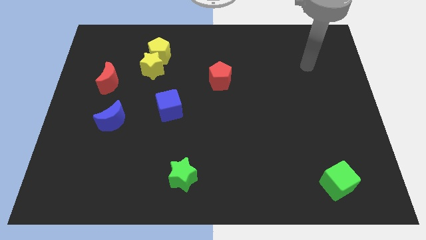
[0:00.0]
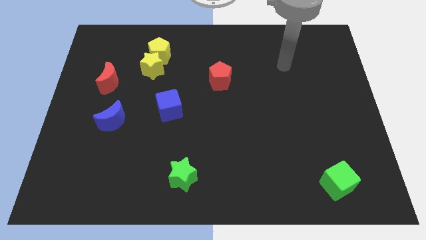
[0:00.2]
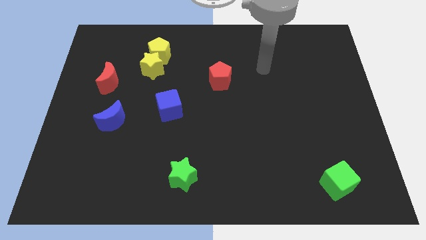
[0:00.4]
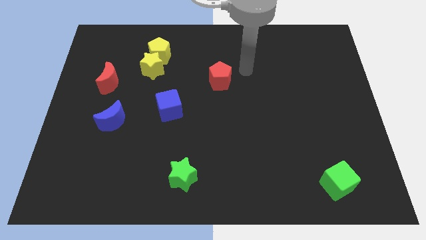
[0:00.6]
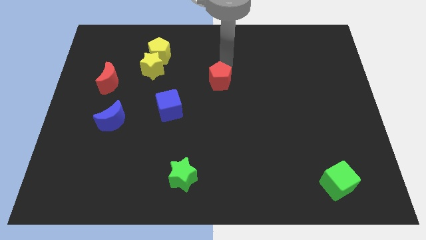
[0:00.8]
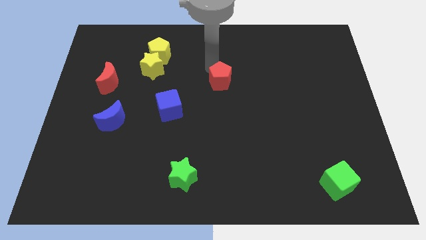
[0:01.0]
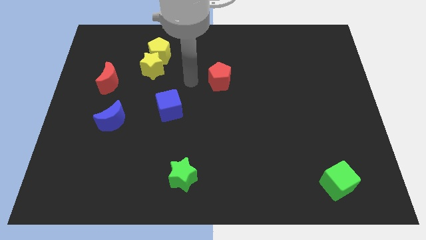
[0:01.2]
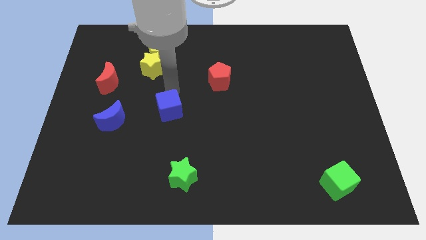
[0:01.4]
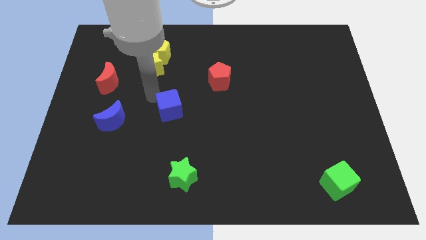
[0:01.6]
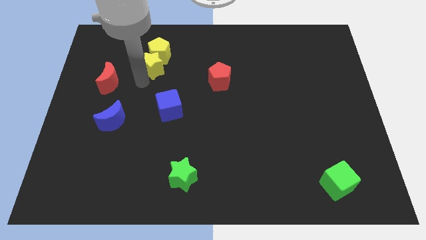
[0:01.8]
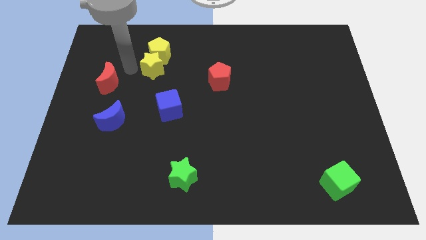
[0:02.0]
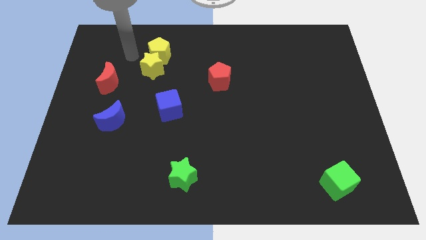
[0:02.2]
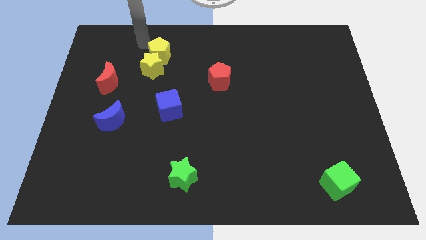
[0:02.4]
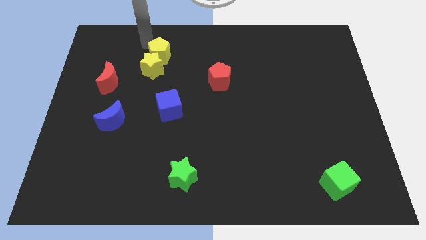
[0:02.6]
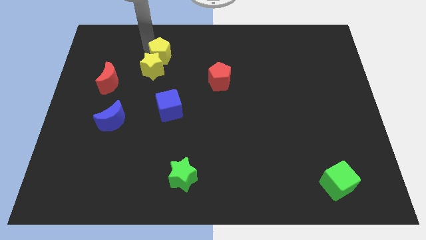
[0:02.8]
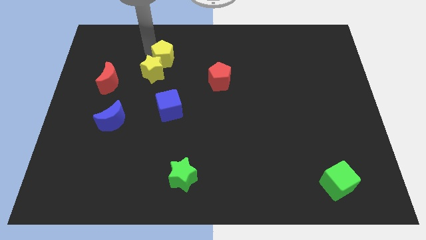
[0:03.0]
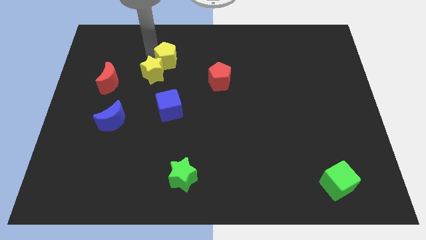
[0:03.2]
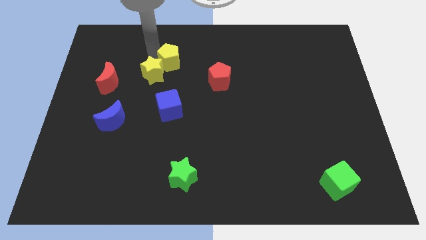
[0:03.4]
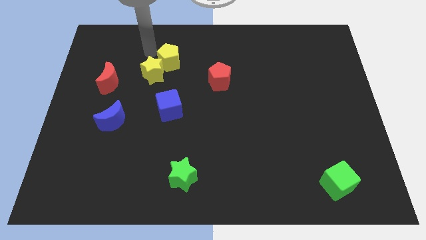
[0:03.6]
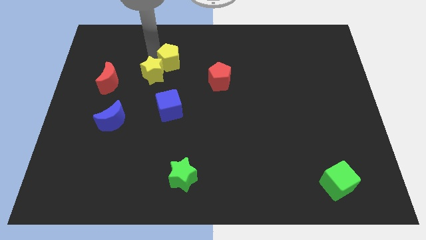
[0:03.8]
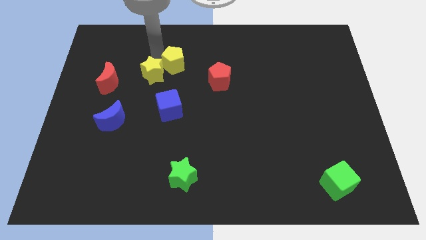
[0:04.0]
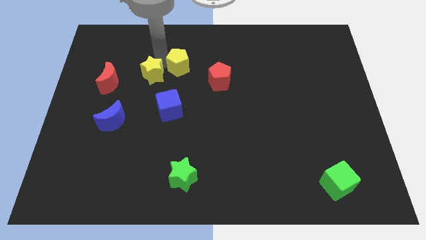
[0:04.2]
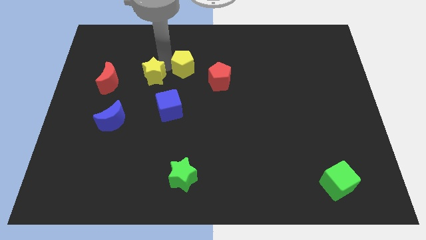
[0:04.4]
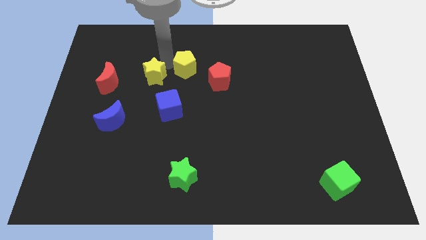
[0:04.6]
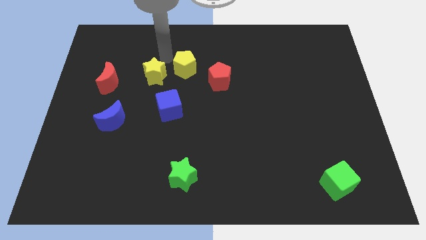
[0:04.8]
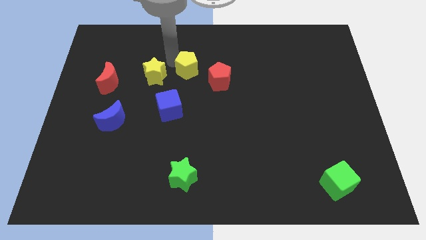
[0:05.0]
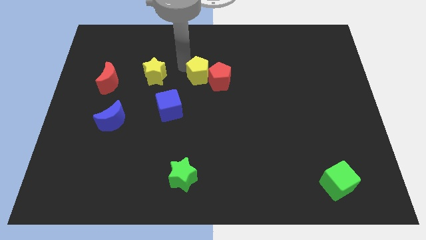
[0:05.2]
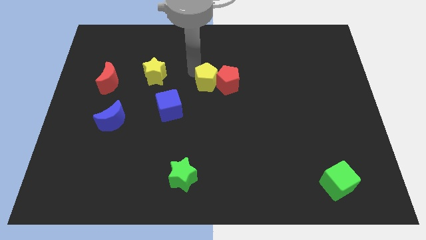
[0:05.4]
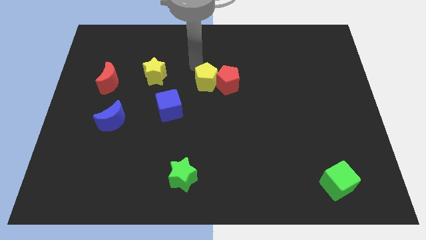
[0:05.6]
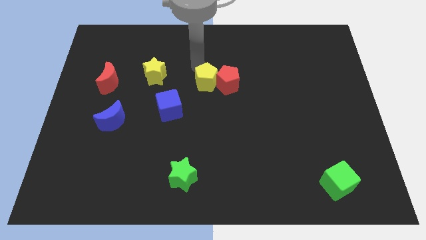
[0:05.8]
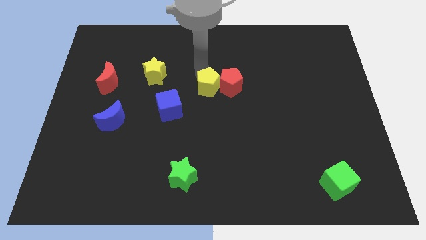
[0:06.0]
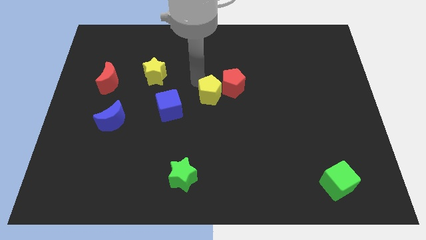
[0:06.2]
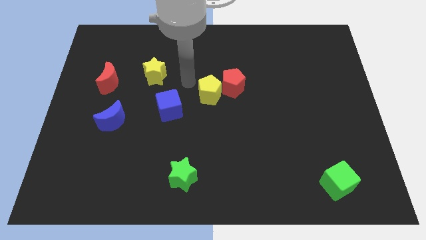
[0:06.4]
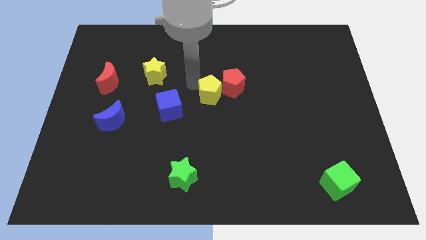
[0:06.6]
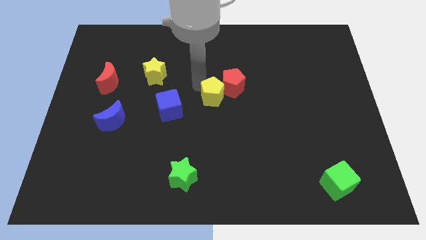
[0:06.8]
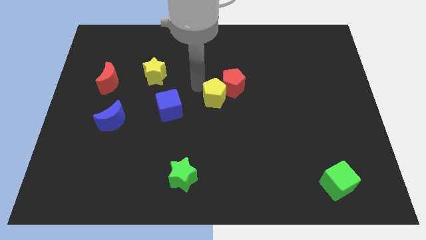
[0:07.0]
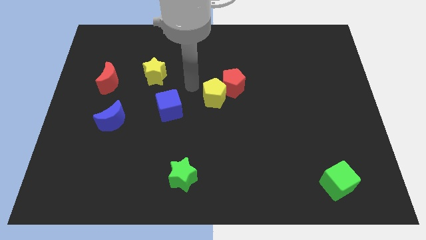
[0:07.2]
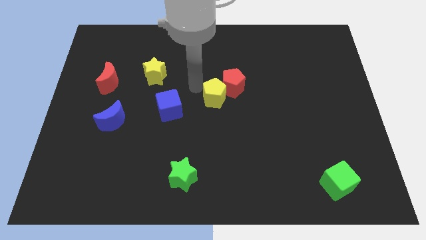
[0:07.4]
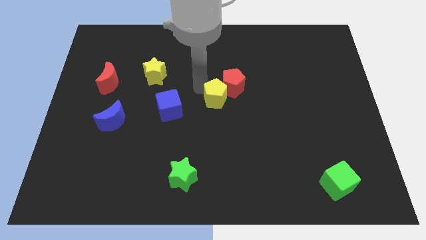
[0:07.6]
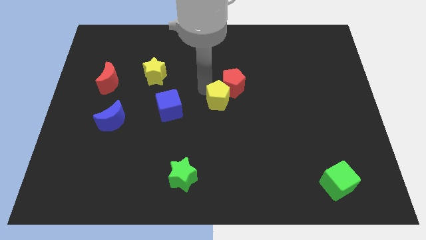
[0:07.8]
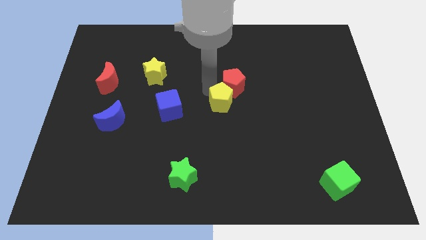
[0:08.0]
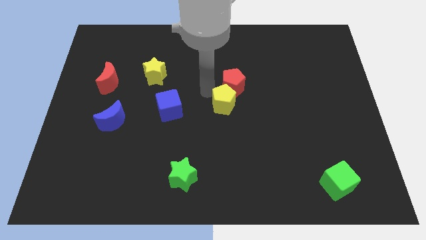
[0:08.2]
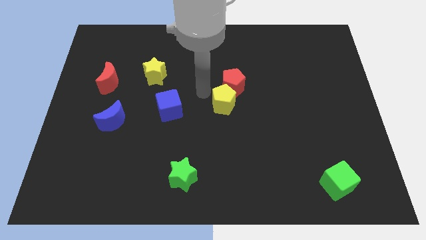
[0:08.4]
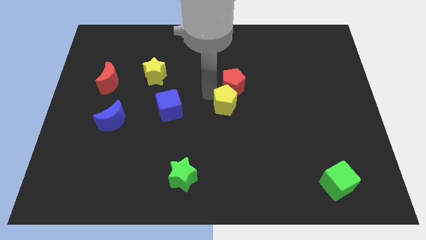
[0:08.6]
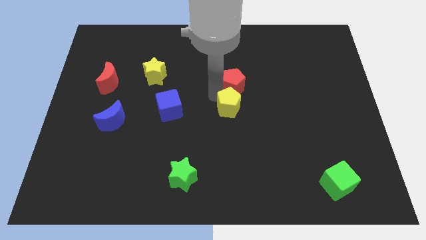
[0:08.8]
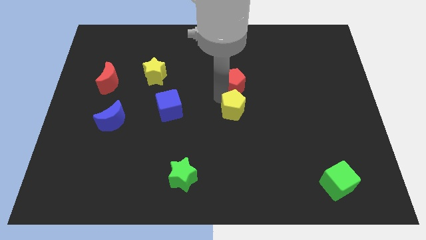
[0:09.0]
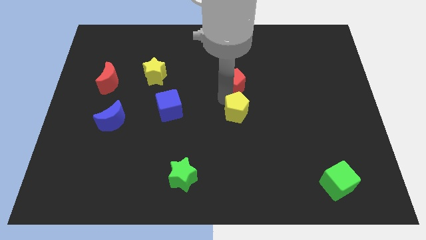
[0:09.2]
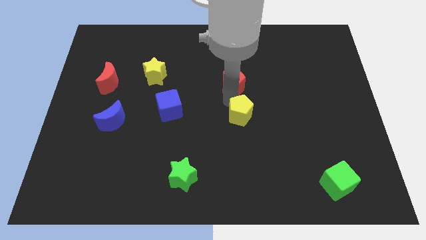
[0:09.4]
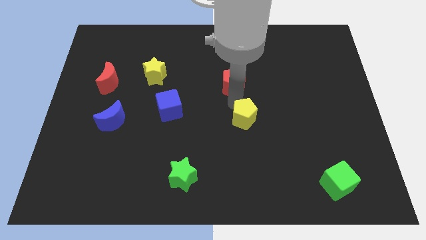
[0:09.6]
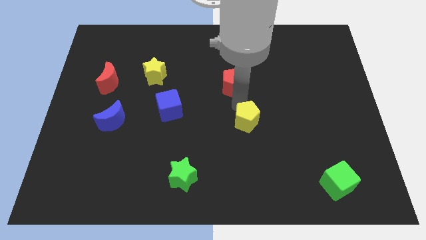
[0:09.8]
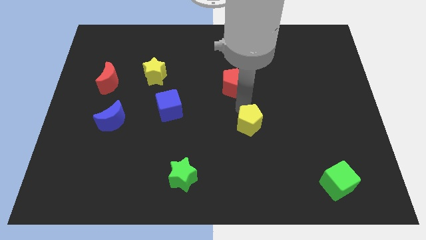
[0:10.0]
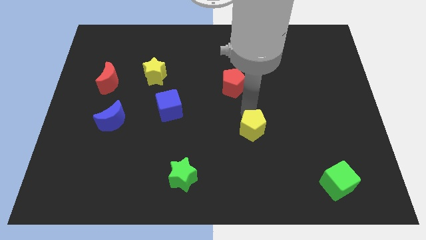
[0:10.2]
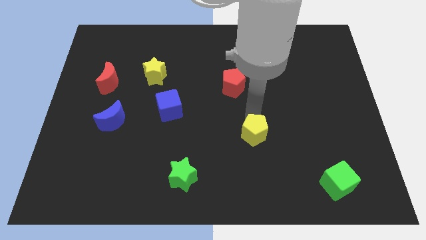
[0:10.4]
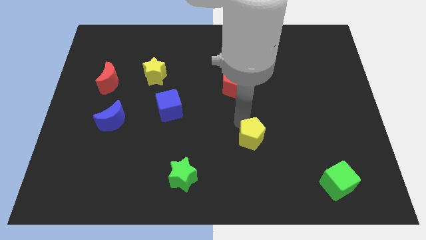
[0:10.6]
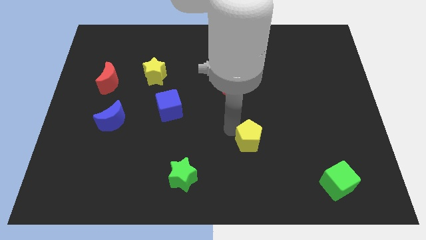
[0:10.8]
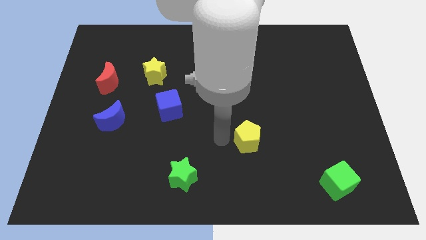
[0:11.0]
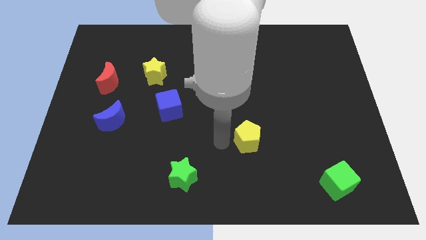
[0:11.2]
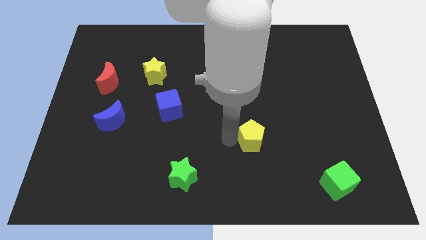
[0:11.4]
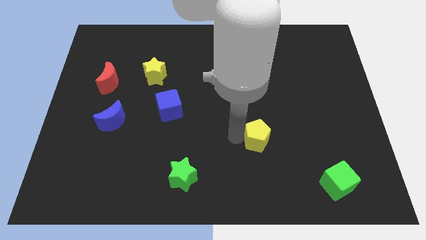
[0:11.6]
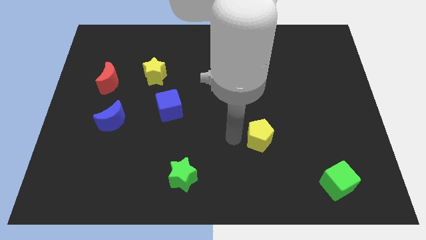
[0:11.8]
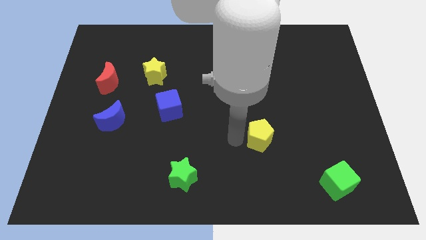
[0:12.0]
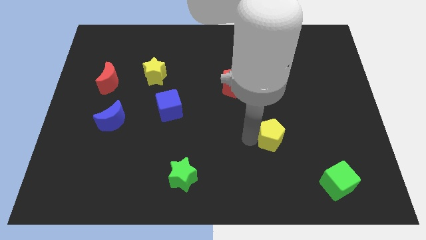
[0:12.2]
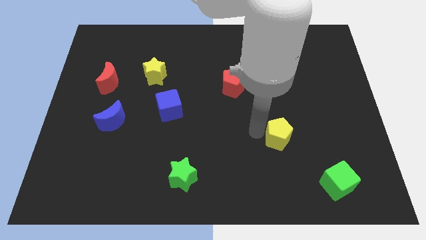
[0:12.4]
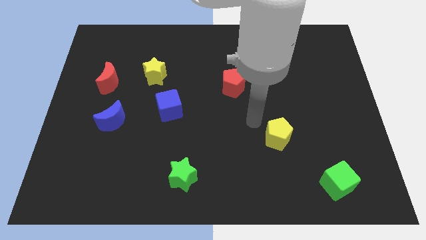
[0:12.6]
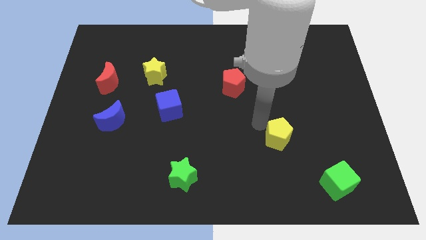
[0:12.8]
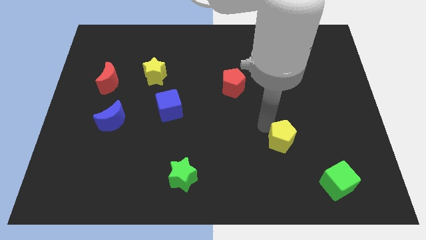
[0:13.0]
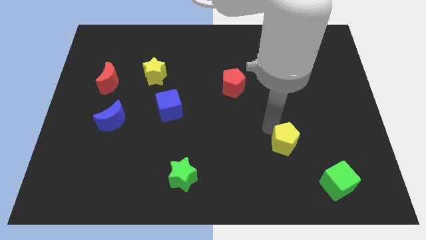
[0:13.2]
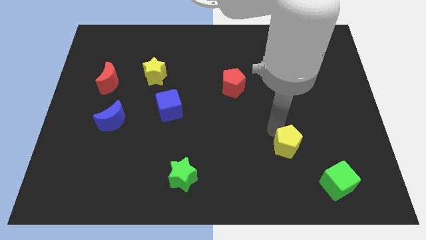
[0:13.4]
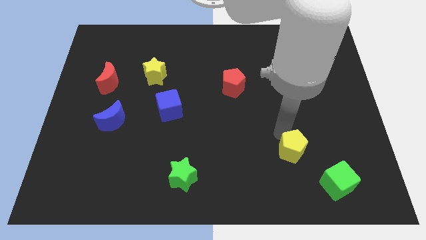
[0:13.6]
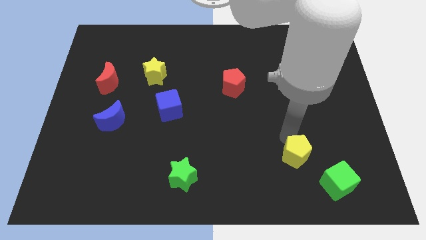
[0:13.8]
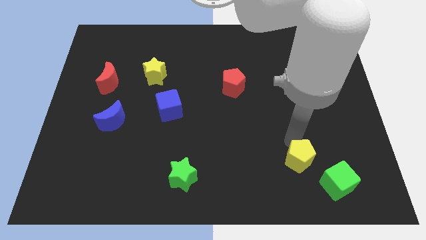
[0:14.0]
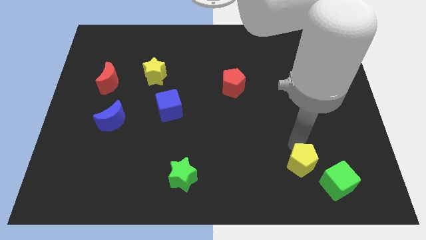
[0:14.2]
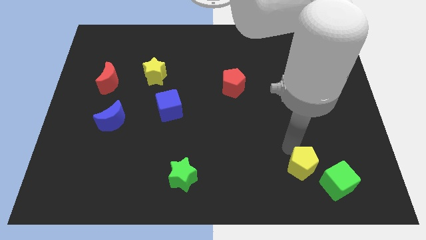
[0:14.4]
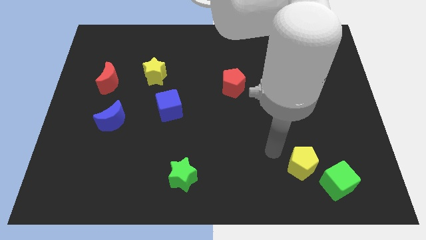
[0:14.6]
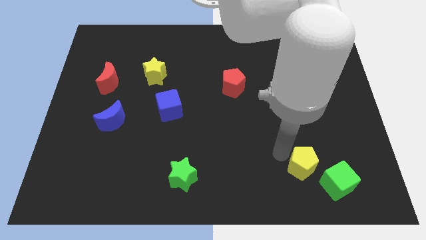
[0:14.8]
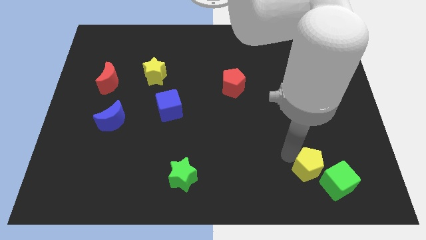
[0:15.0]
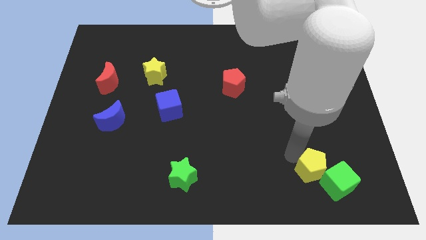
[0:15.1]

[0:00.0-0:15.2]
push the yellow pentagon towards the green cube
